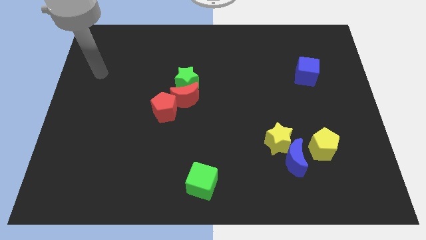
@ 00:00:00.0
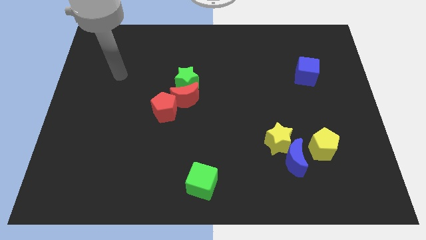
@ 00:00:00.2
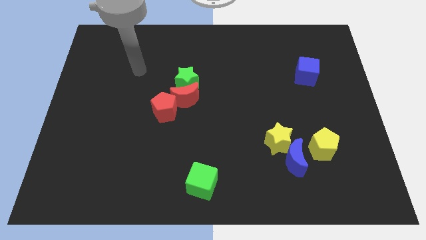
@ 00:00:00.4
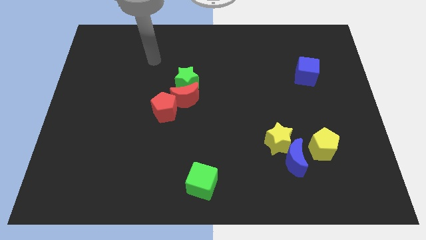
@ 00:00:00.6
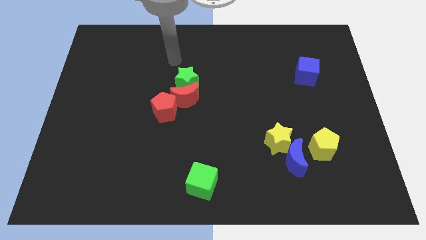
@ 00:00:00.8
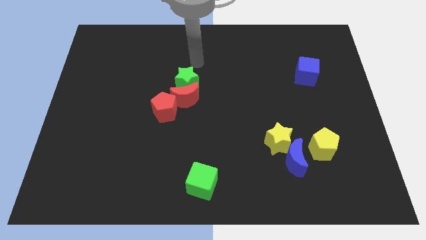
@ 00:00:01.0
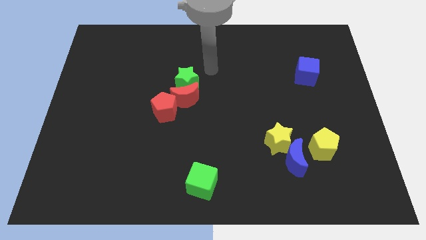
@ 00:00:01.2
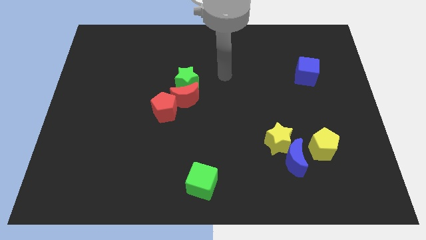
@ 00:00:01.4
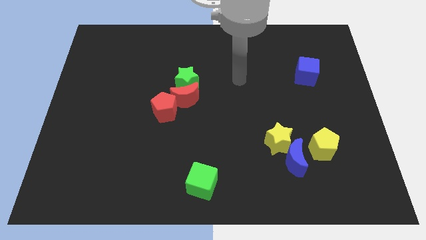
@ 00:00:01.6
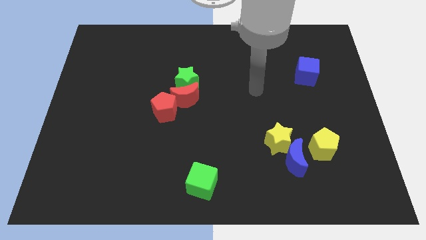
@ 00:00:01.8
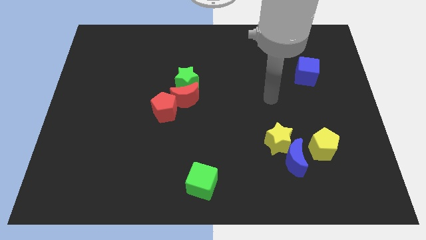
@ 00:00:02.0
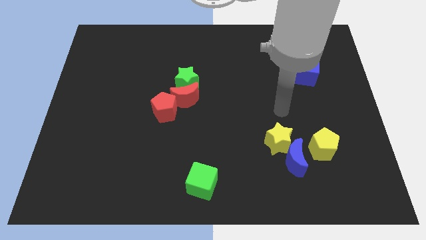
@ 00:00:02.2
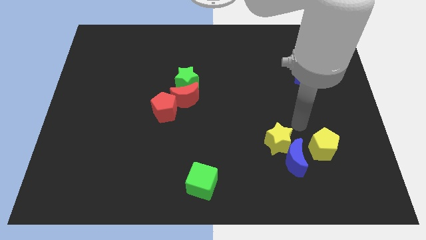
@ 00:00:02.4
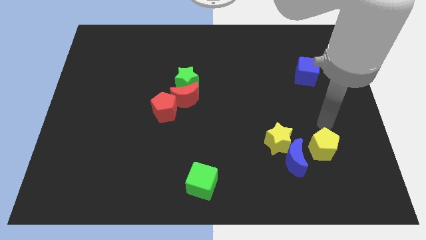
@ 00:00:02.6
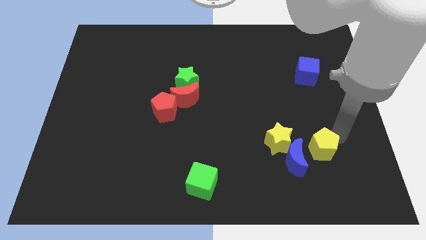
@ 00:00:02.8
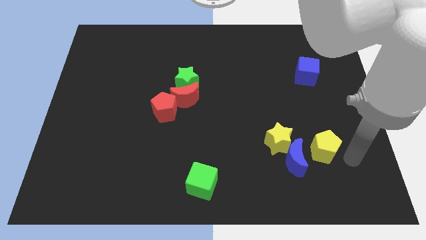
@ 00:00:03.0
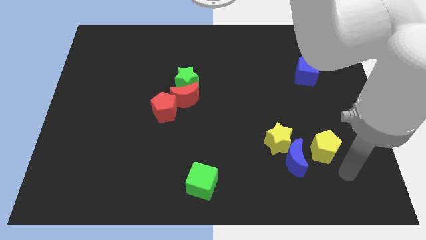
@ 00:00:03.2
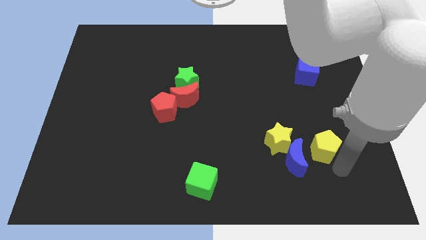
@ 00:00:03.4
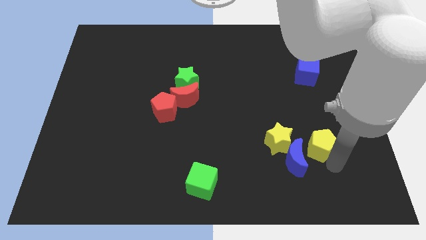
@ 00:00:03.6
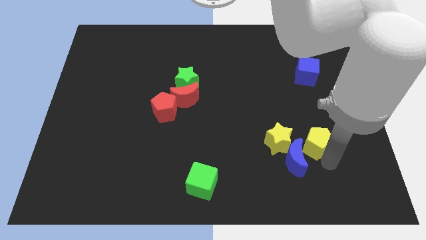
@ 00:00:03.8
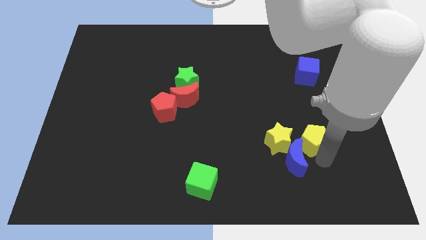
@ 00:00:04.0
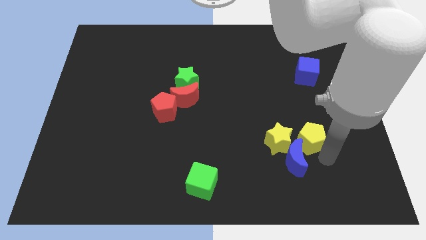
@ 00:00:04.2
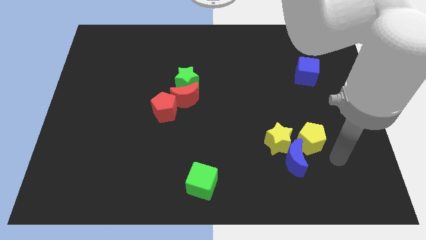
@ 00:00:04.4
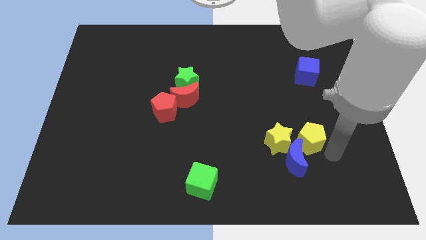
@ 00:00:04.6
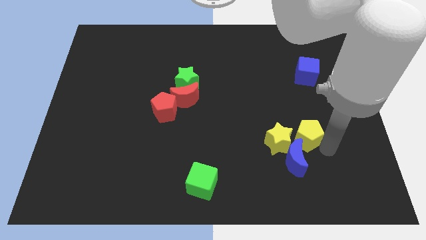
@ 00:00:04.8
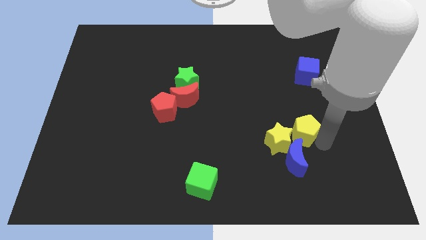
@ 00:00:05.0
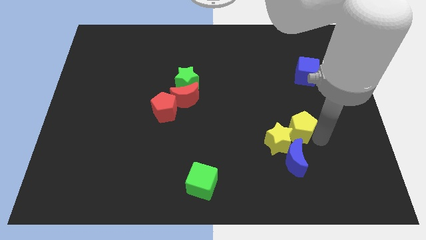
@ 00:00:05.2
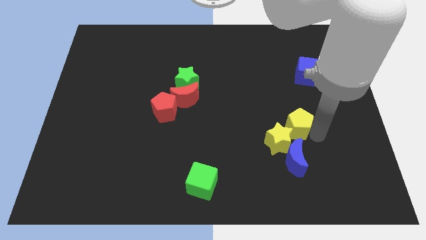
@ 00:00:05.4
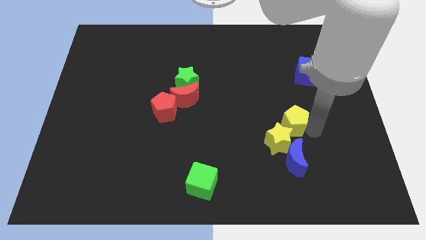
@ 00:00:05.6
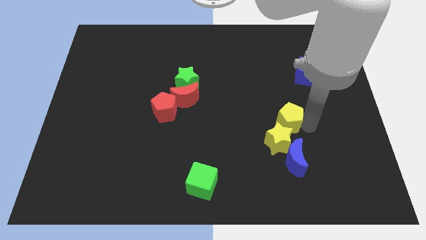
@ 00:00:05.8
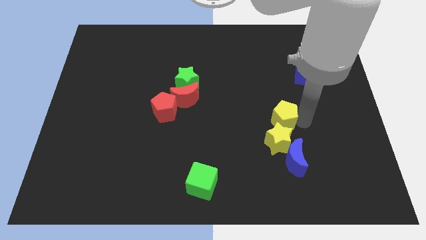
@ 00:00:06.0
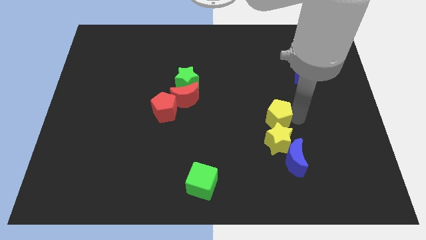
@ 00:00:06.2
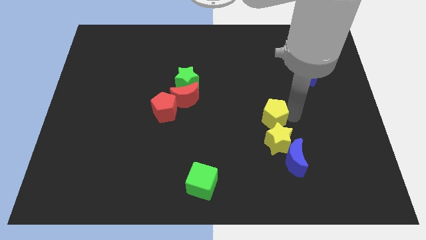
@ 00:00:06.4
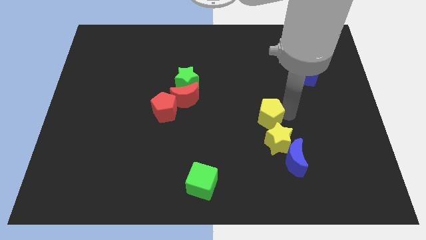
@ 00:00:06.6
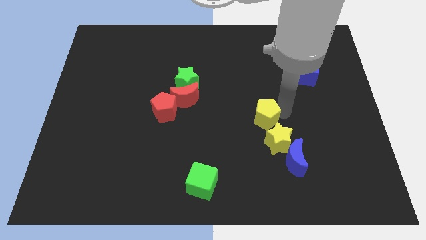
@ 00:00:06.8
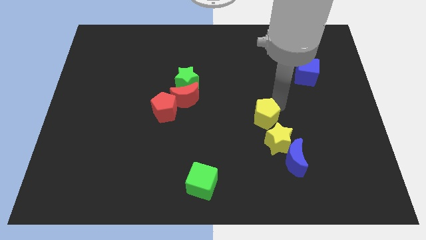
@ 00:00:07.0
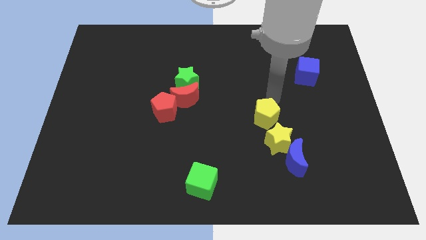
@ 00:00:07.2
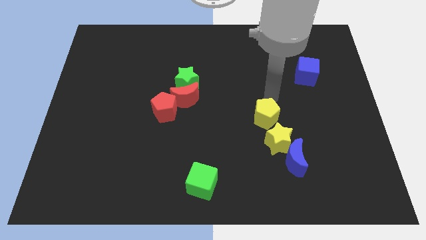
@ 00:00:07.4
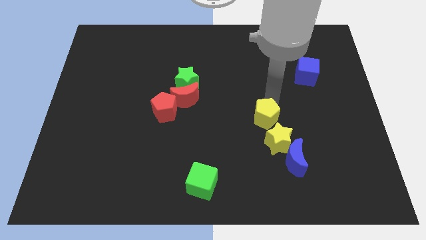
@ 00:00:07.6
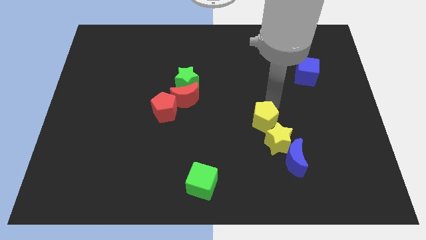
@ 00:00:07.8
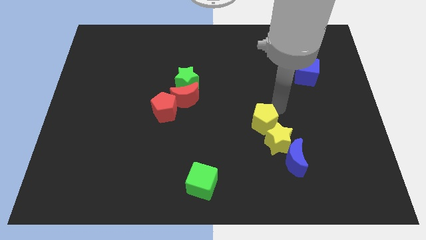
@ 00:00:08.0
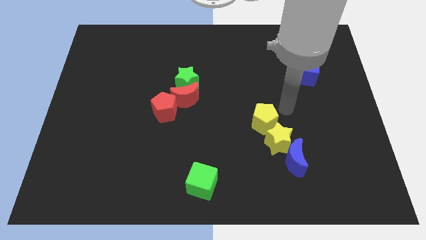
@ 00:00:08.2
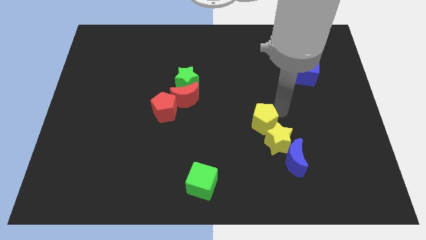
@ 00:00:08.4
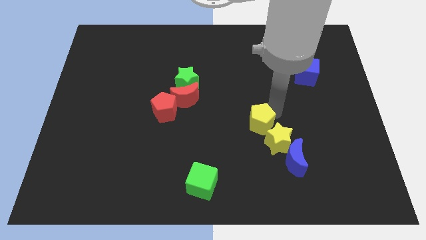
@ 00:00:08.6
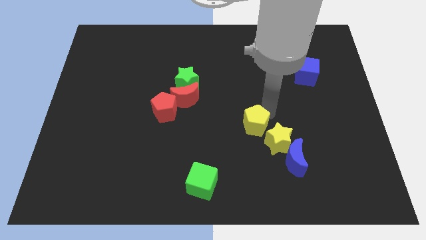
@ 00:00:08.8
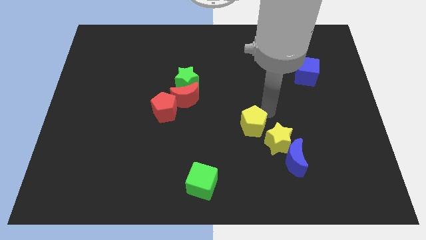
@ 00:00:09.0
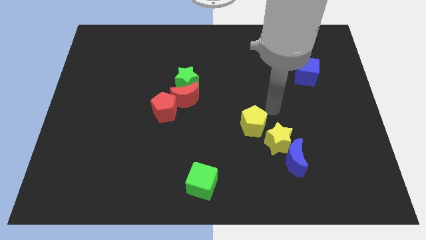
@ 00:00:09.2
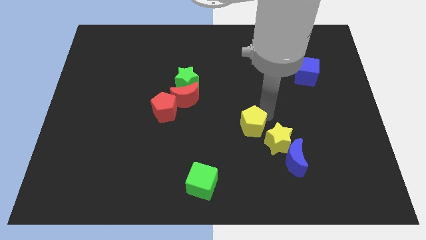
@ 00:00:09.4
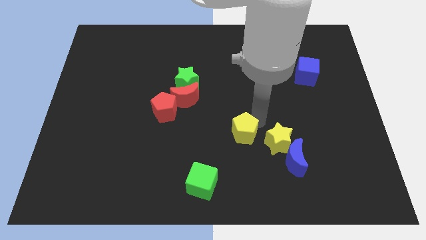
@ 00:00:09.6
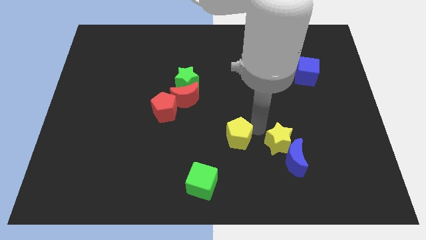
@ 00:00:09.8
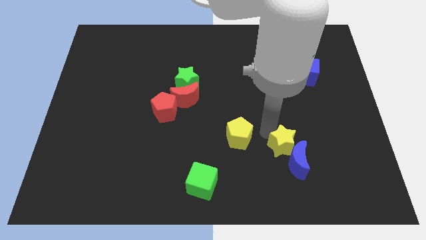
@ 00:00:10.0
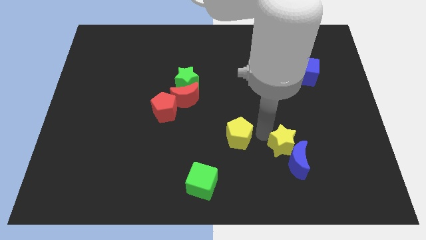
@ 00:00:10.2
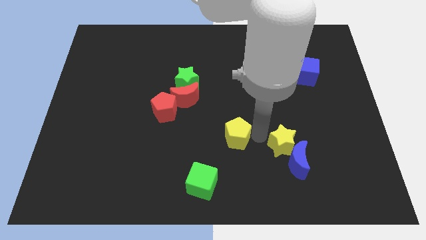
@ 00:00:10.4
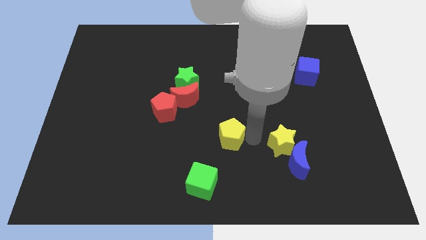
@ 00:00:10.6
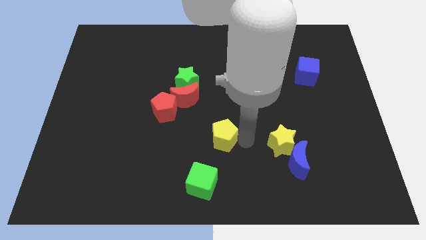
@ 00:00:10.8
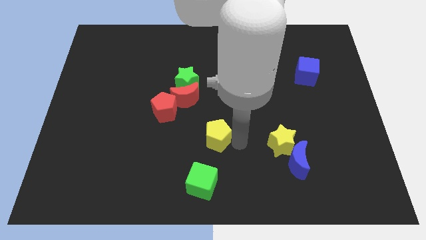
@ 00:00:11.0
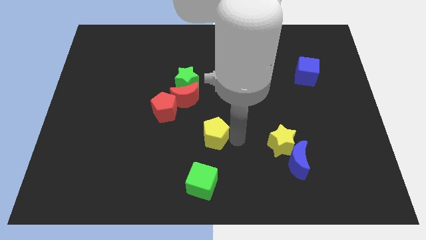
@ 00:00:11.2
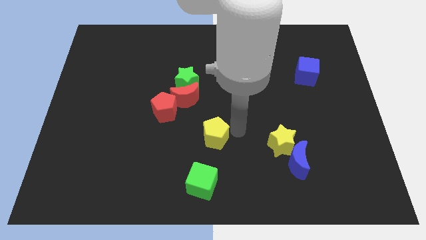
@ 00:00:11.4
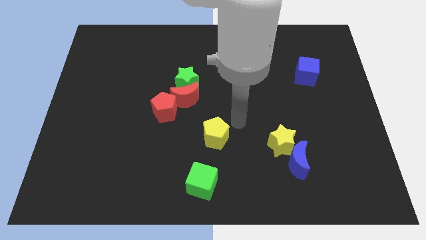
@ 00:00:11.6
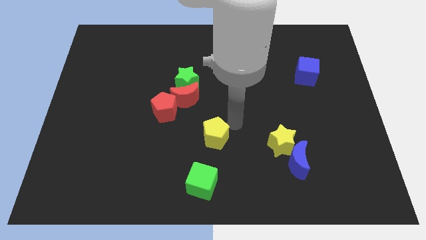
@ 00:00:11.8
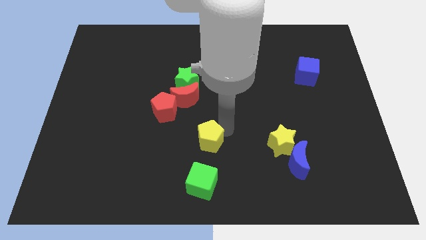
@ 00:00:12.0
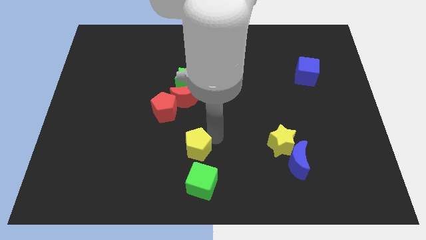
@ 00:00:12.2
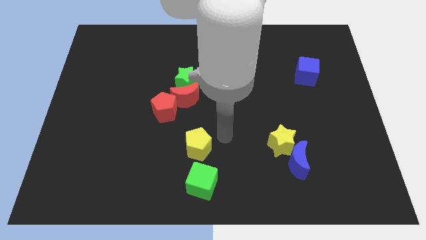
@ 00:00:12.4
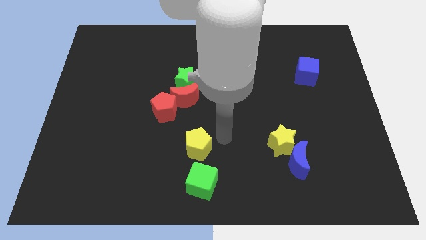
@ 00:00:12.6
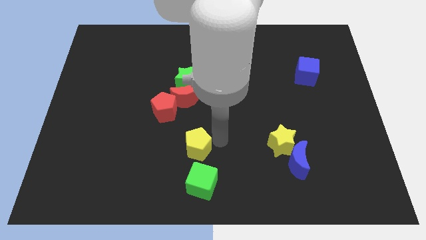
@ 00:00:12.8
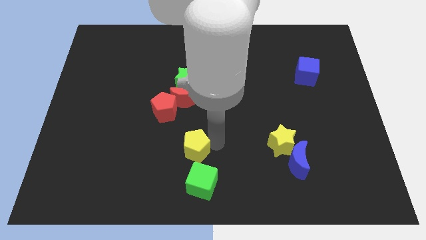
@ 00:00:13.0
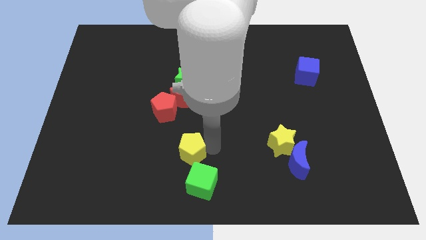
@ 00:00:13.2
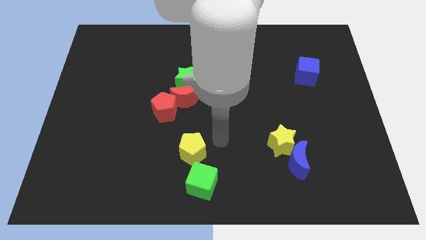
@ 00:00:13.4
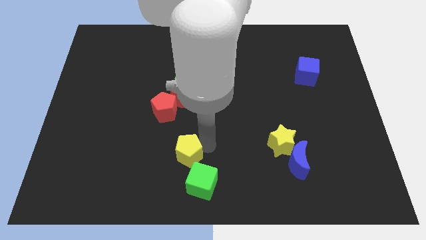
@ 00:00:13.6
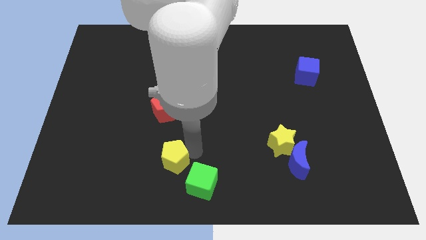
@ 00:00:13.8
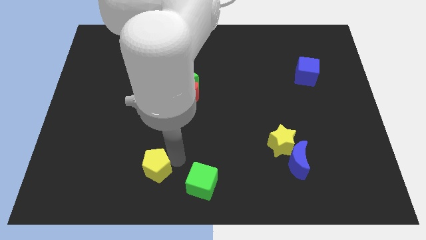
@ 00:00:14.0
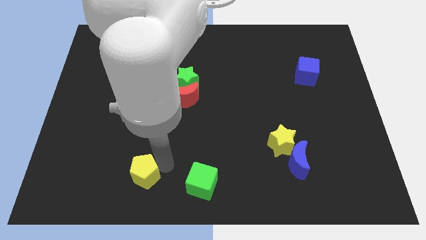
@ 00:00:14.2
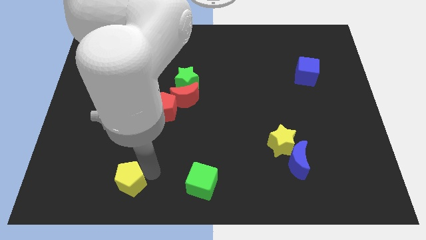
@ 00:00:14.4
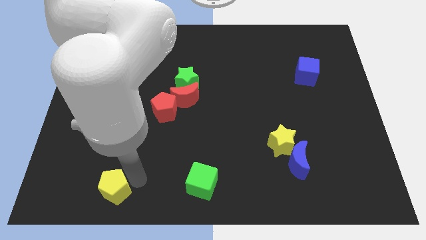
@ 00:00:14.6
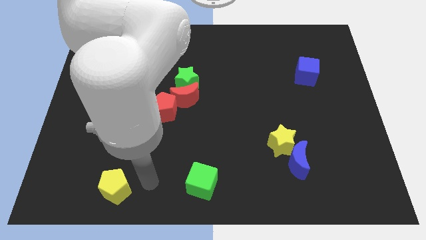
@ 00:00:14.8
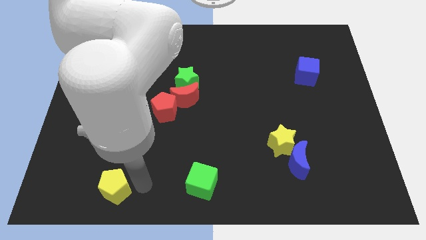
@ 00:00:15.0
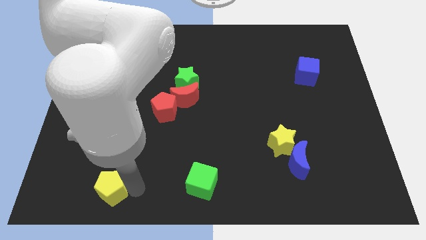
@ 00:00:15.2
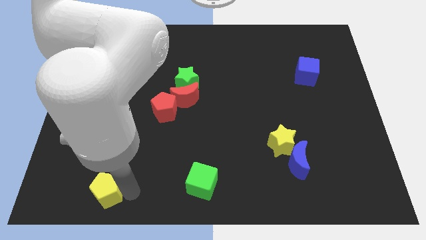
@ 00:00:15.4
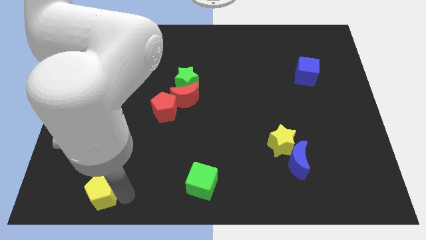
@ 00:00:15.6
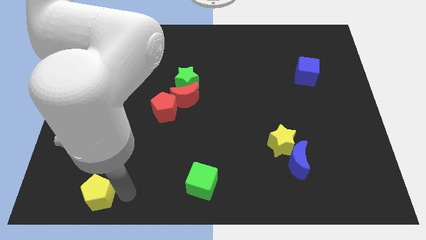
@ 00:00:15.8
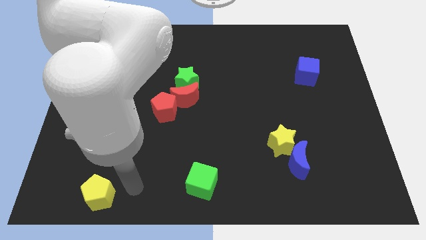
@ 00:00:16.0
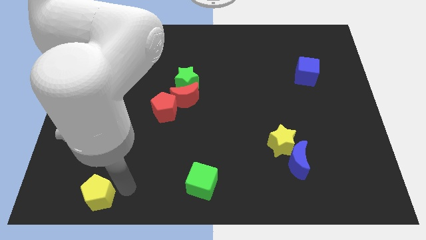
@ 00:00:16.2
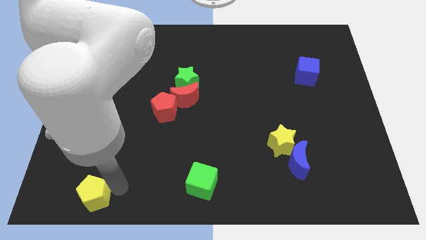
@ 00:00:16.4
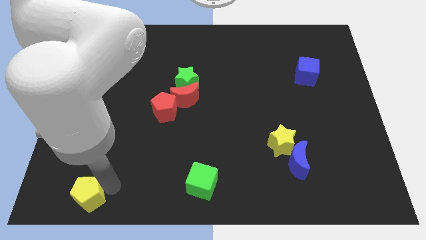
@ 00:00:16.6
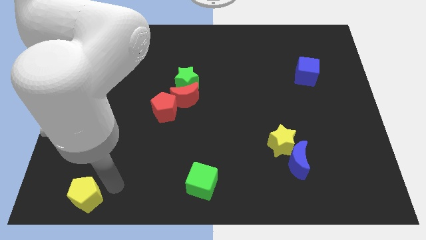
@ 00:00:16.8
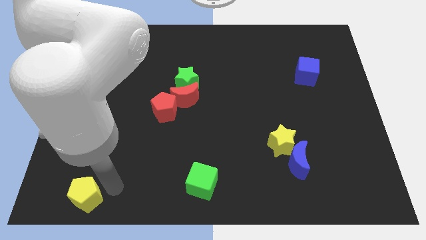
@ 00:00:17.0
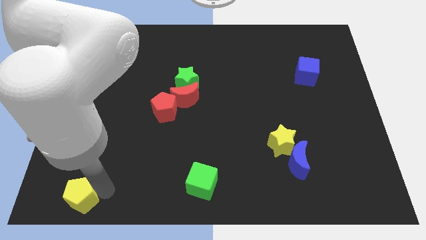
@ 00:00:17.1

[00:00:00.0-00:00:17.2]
move the yellow pentagon to the lower left corner
